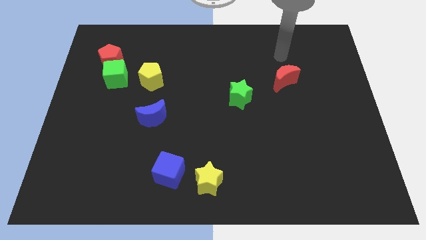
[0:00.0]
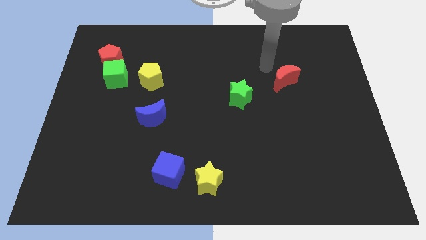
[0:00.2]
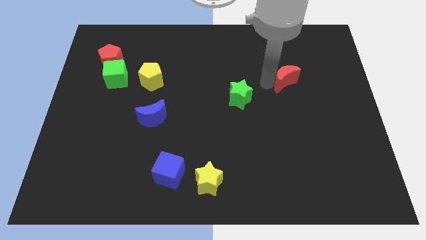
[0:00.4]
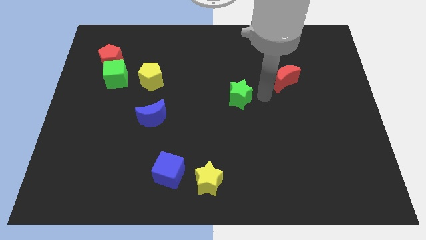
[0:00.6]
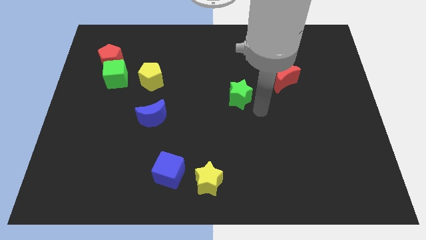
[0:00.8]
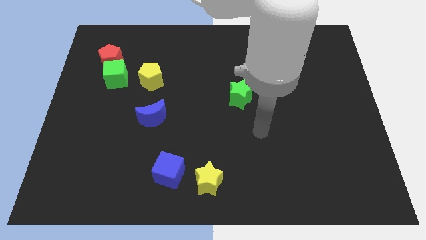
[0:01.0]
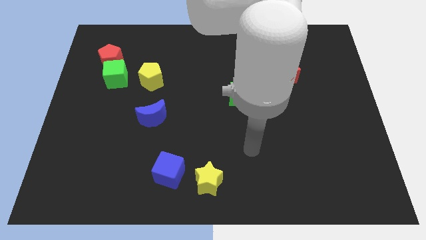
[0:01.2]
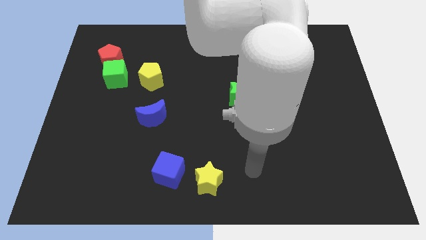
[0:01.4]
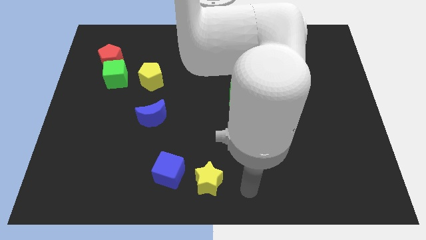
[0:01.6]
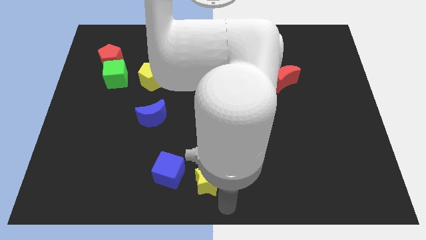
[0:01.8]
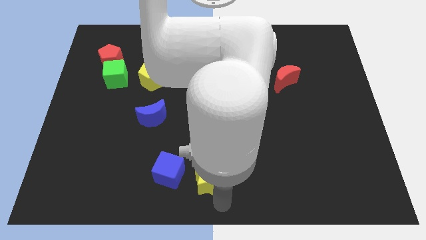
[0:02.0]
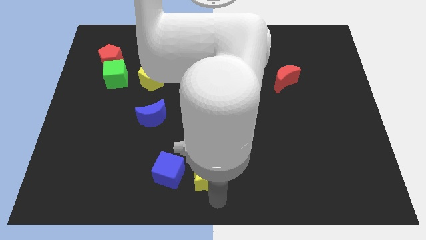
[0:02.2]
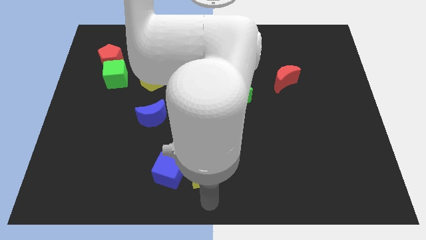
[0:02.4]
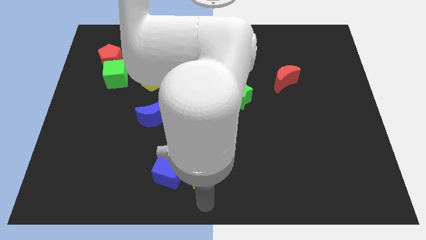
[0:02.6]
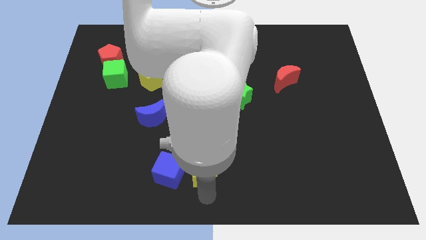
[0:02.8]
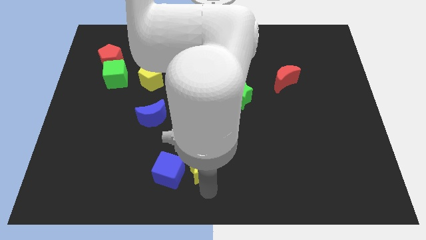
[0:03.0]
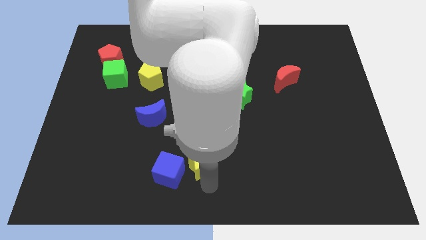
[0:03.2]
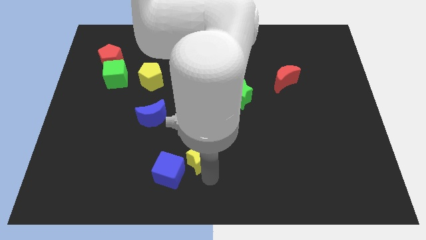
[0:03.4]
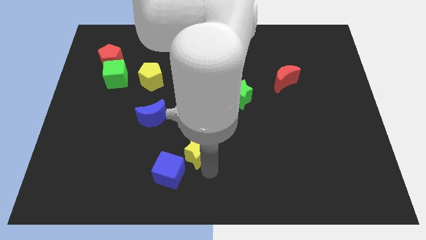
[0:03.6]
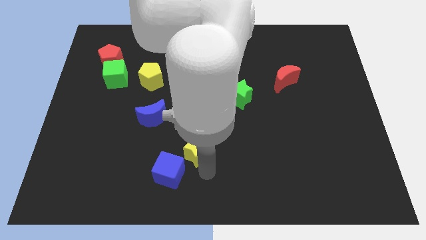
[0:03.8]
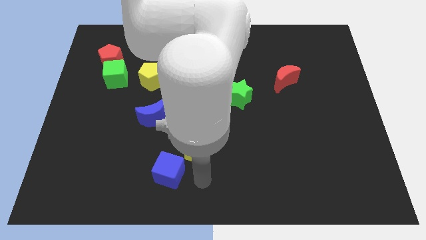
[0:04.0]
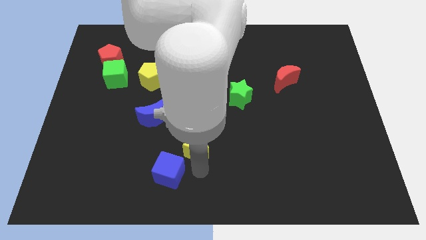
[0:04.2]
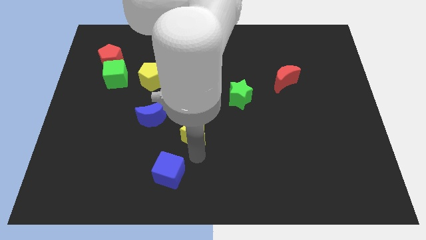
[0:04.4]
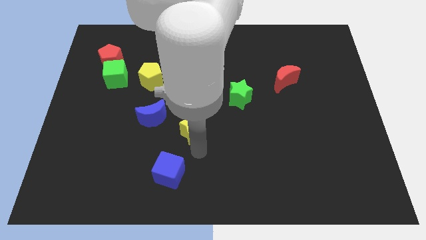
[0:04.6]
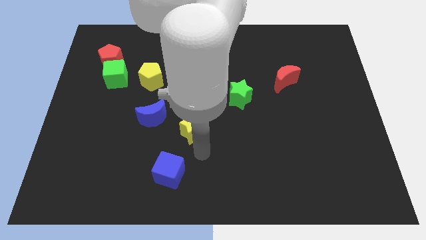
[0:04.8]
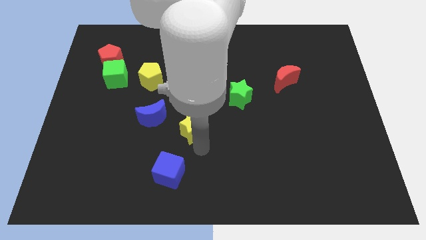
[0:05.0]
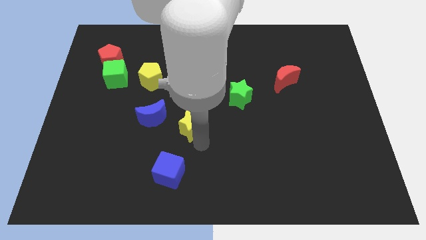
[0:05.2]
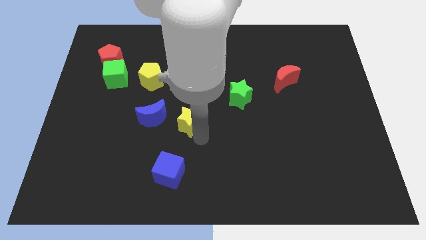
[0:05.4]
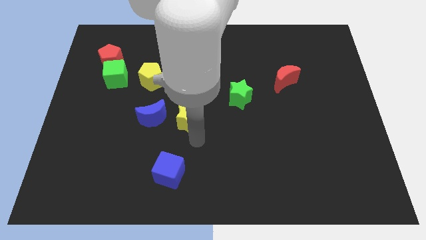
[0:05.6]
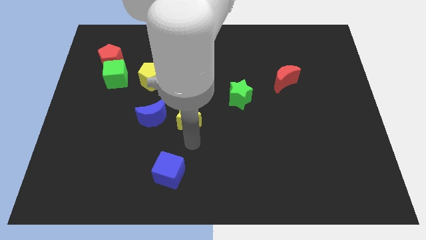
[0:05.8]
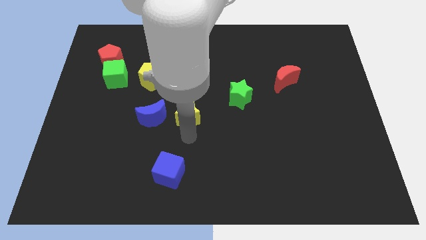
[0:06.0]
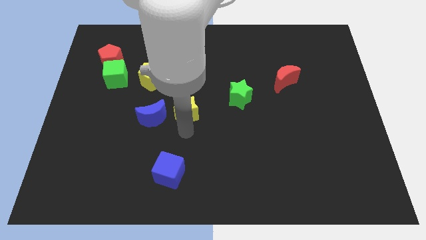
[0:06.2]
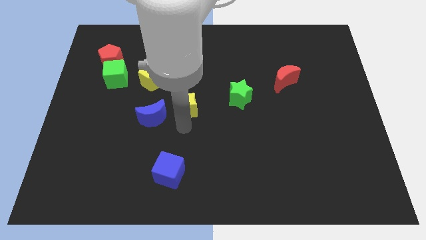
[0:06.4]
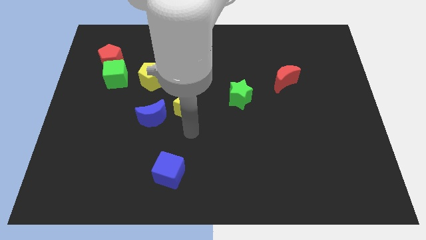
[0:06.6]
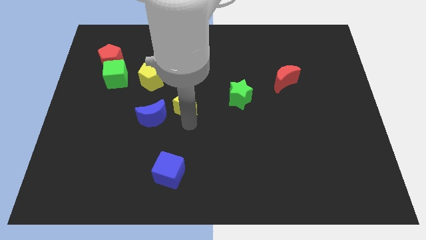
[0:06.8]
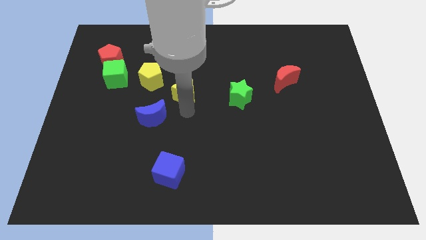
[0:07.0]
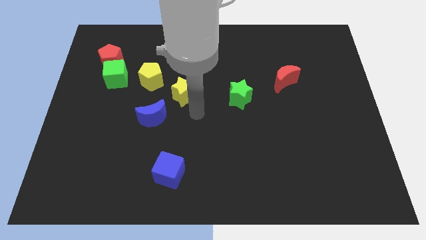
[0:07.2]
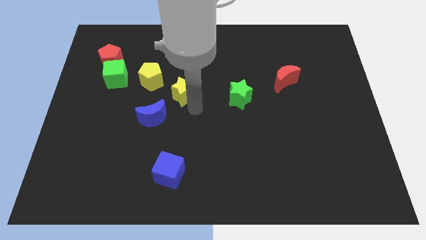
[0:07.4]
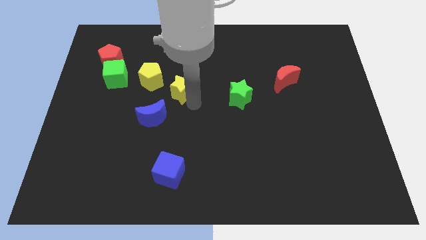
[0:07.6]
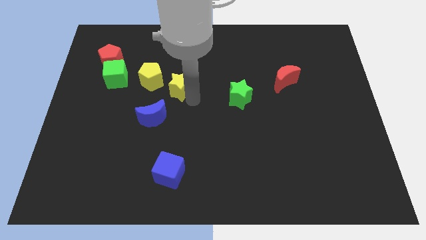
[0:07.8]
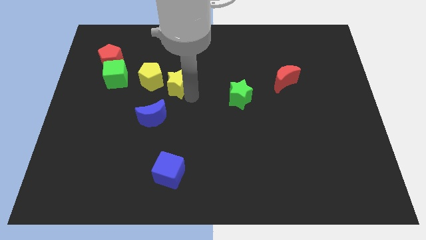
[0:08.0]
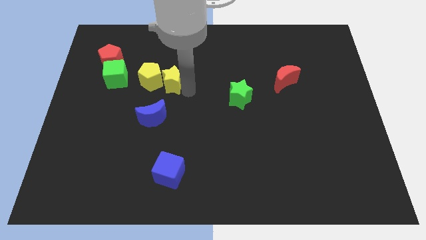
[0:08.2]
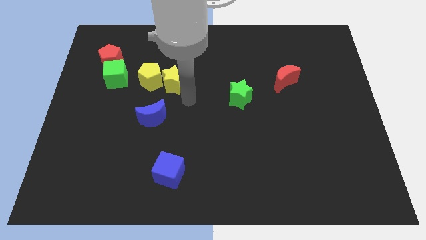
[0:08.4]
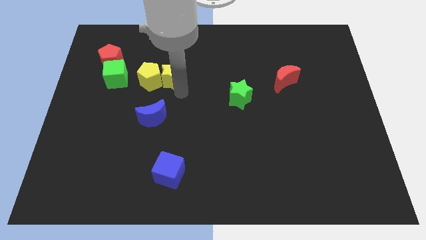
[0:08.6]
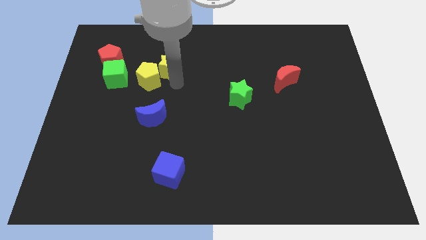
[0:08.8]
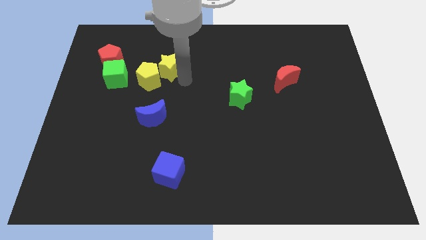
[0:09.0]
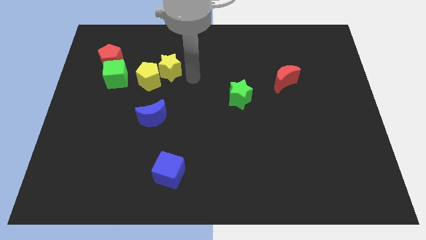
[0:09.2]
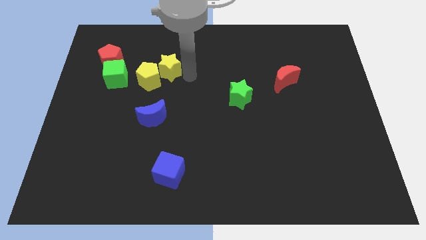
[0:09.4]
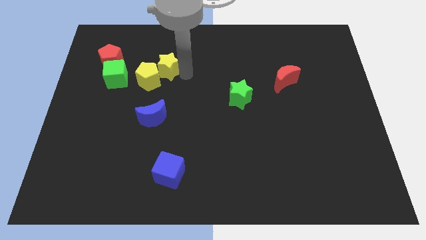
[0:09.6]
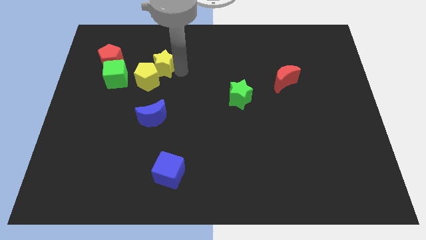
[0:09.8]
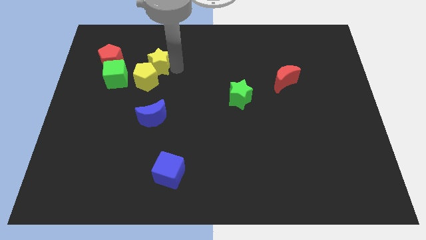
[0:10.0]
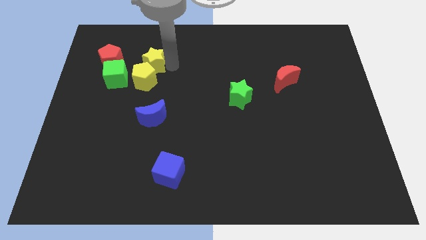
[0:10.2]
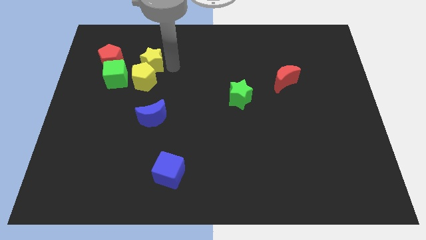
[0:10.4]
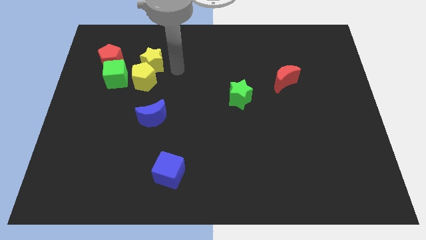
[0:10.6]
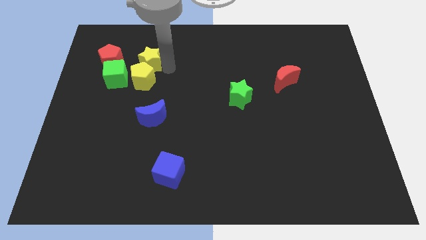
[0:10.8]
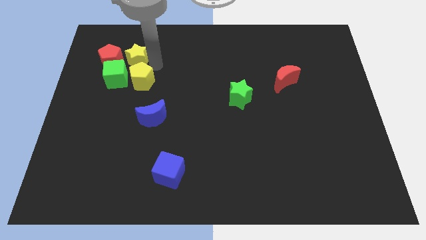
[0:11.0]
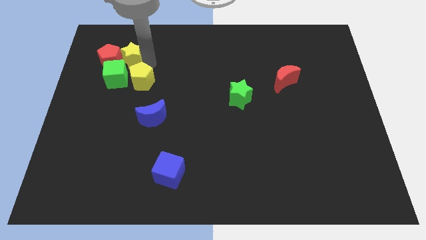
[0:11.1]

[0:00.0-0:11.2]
slide the yellow star close to the red pentagon

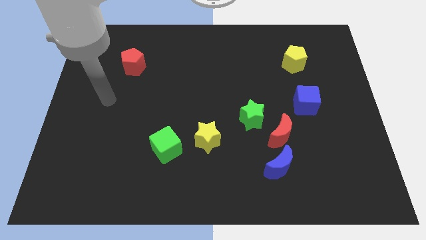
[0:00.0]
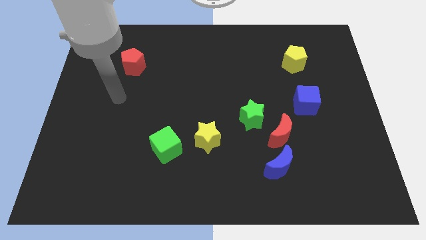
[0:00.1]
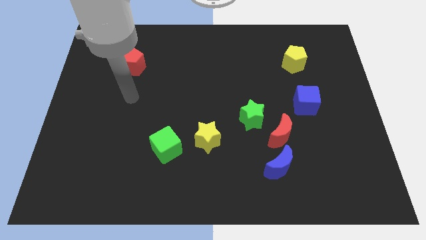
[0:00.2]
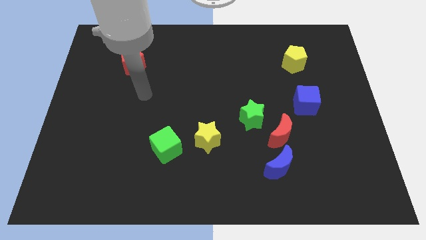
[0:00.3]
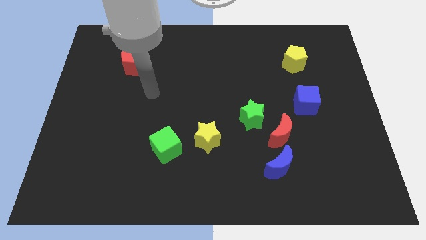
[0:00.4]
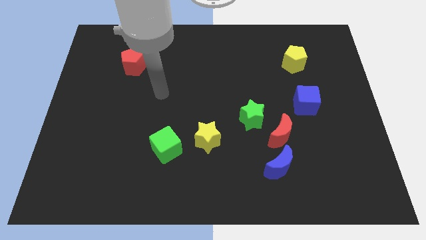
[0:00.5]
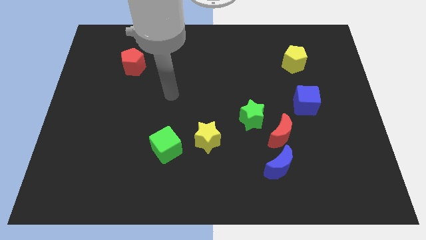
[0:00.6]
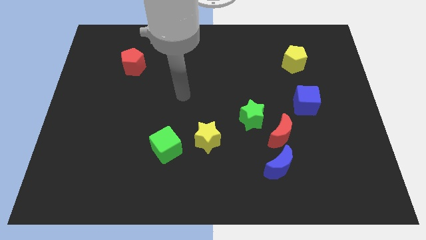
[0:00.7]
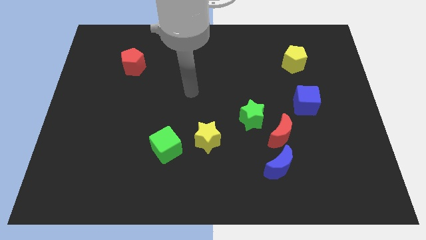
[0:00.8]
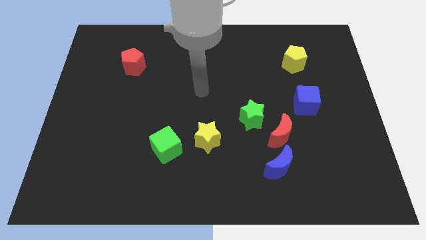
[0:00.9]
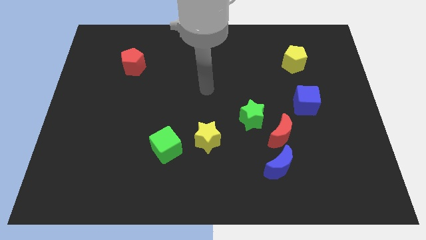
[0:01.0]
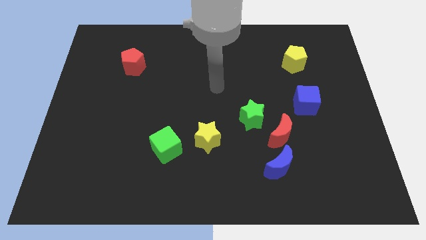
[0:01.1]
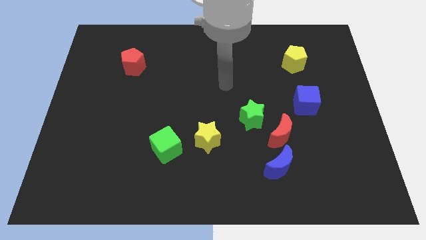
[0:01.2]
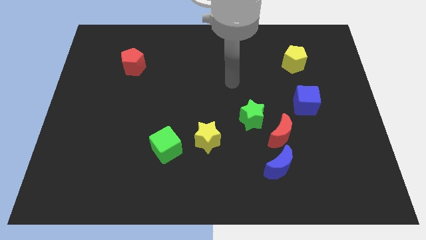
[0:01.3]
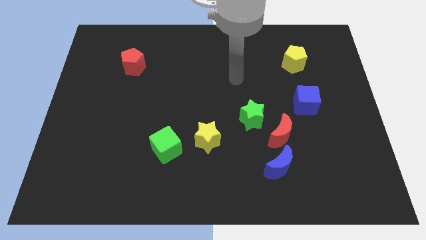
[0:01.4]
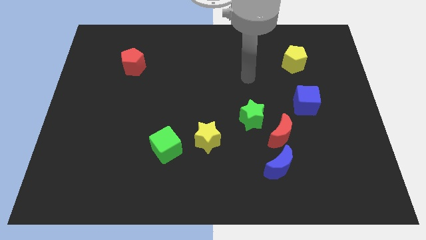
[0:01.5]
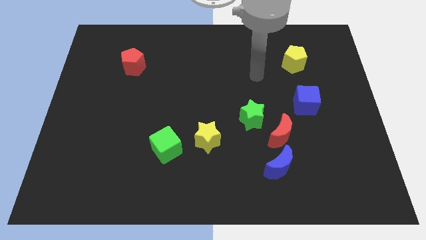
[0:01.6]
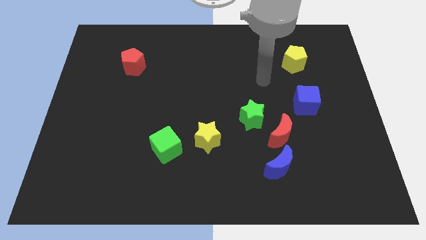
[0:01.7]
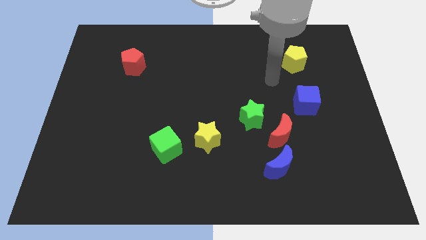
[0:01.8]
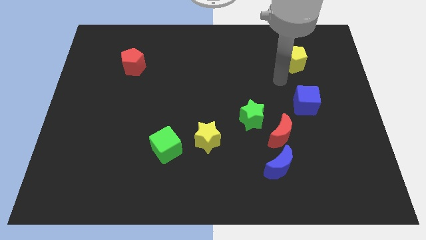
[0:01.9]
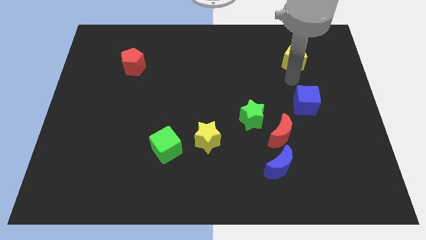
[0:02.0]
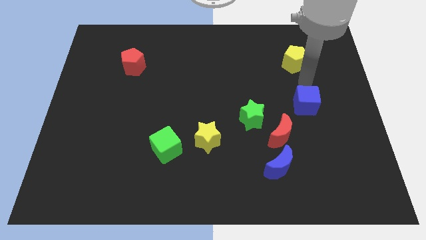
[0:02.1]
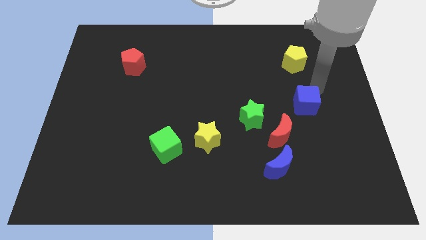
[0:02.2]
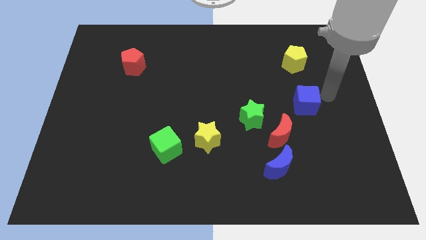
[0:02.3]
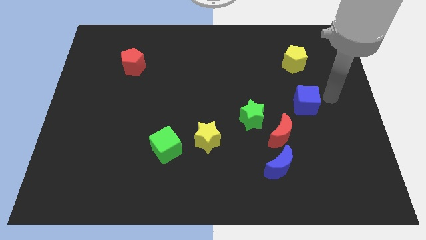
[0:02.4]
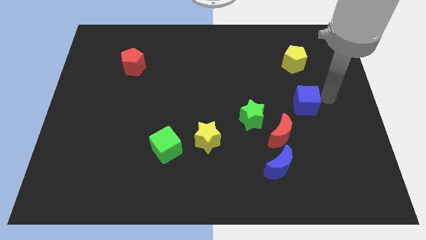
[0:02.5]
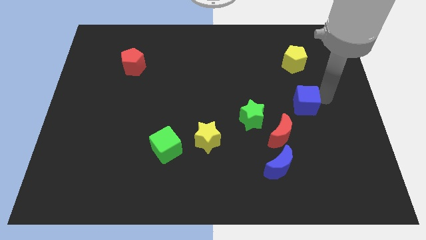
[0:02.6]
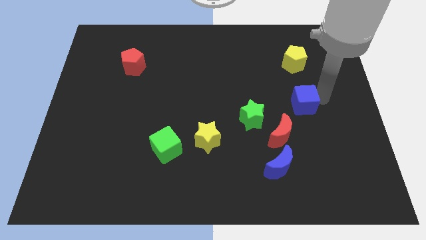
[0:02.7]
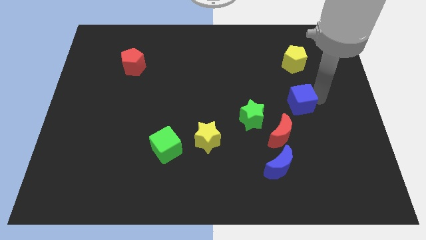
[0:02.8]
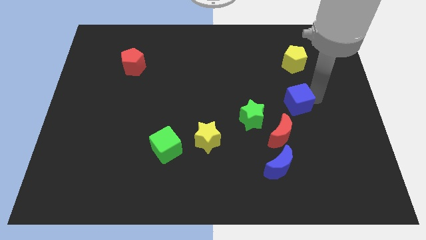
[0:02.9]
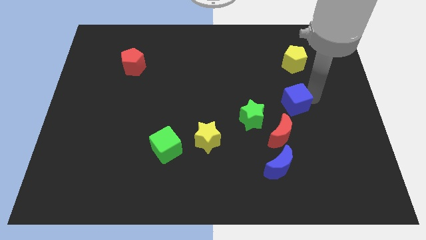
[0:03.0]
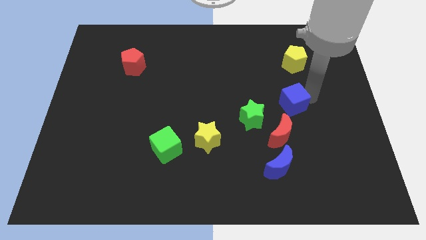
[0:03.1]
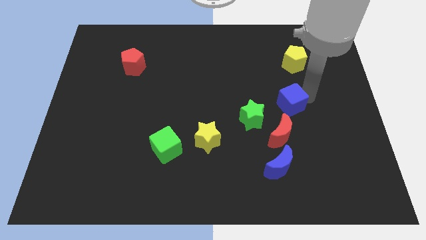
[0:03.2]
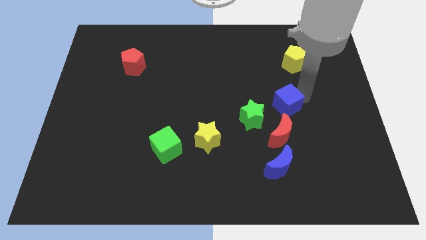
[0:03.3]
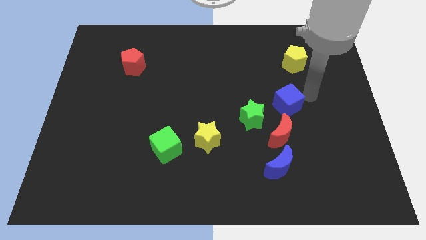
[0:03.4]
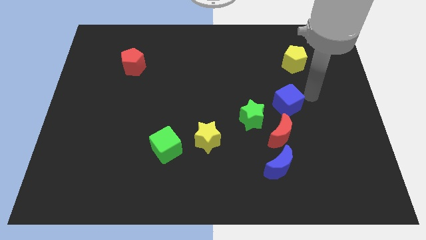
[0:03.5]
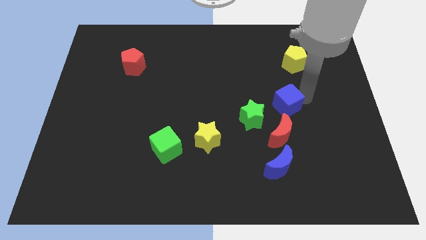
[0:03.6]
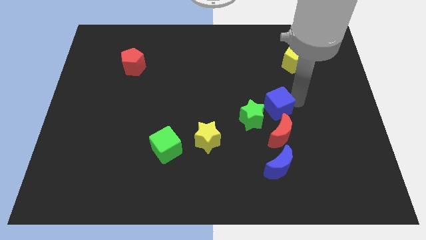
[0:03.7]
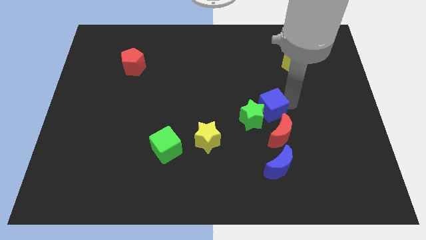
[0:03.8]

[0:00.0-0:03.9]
slide the blue cube next to the green star
